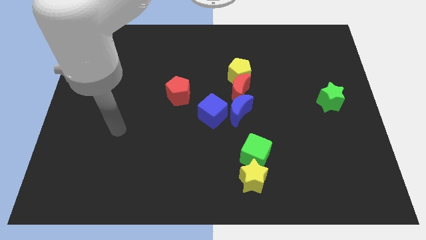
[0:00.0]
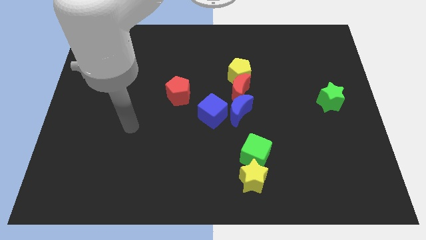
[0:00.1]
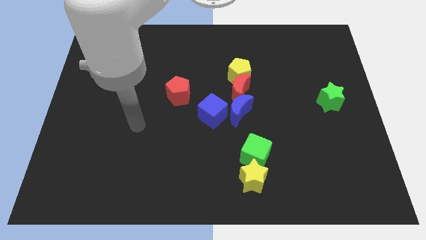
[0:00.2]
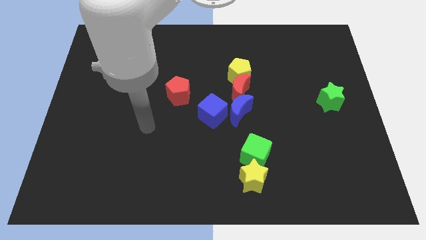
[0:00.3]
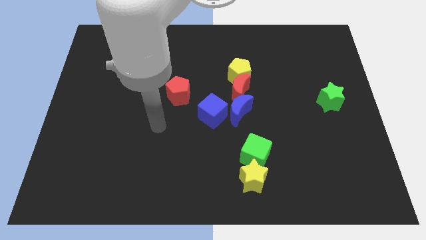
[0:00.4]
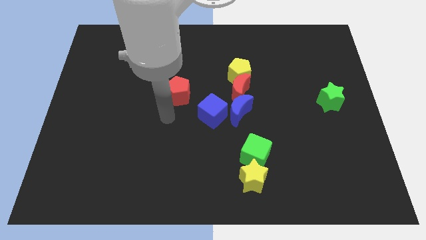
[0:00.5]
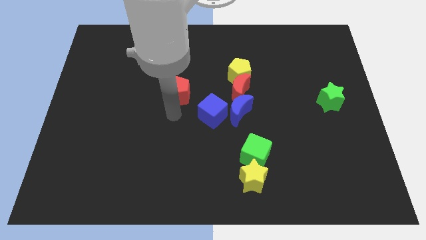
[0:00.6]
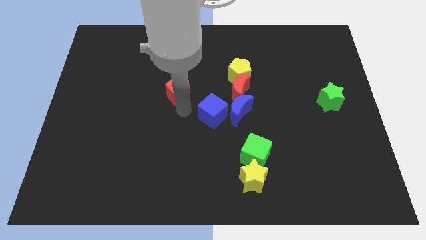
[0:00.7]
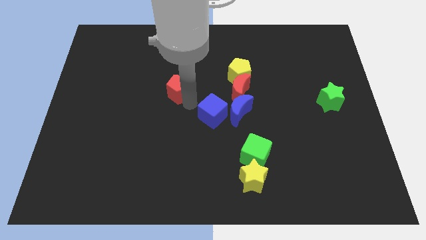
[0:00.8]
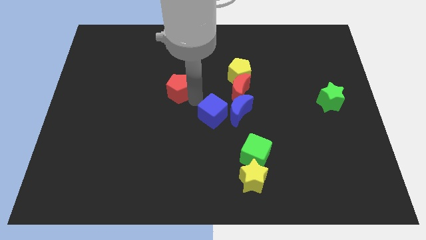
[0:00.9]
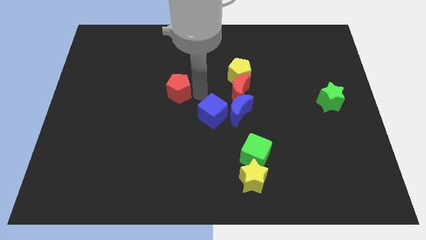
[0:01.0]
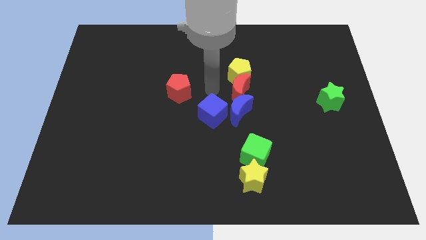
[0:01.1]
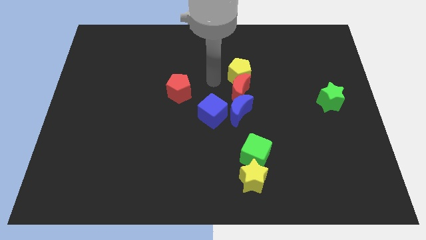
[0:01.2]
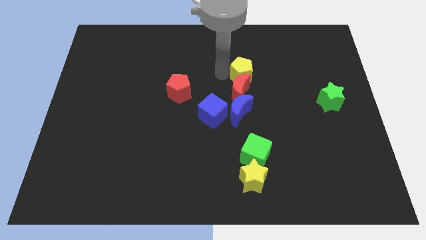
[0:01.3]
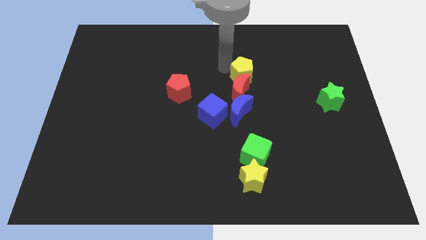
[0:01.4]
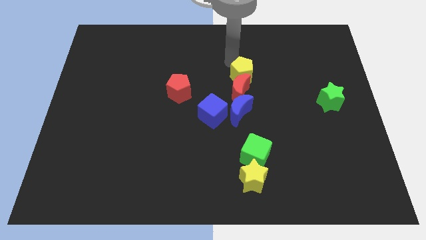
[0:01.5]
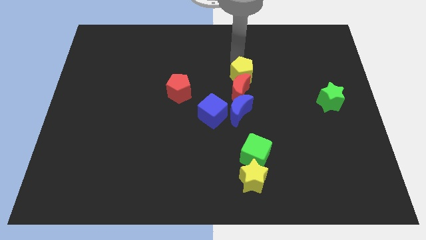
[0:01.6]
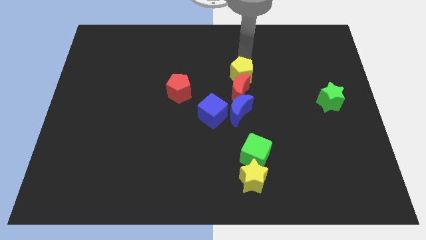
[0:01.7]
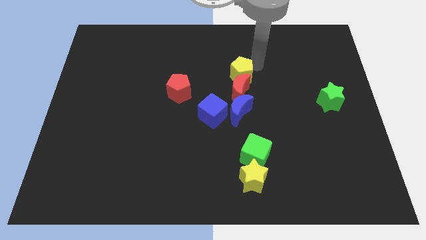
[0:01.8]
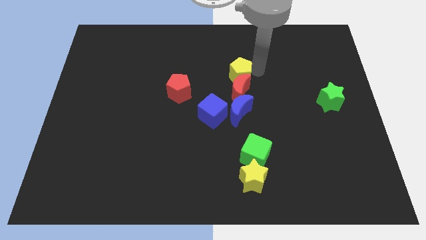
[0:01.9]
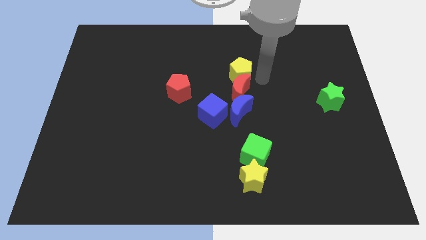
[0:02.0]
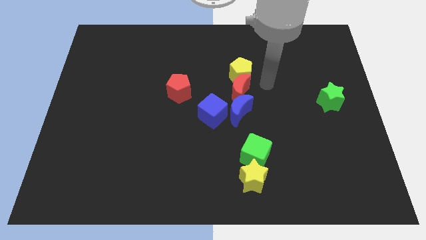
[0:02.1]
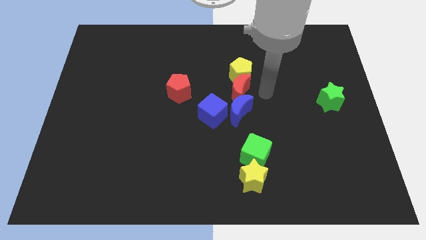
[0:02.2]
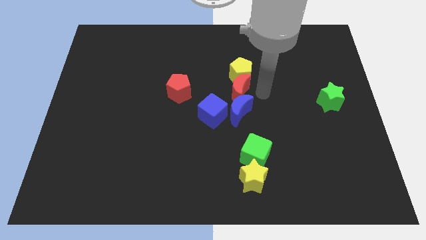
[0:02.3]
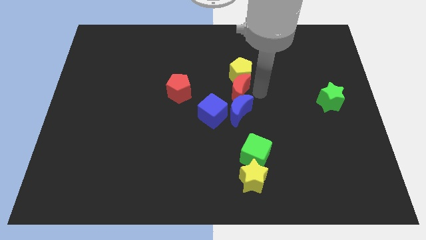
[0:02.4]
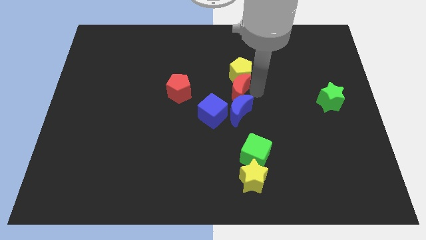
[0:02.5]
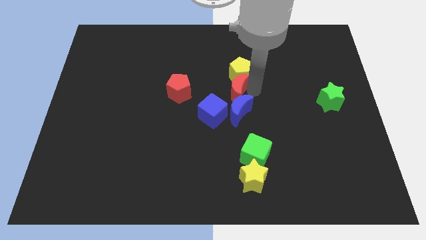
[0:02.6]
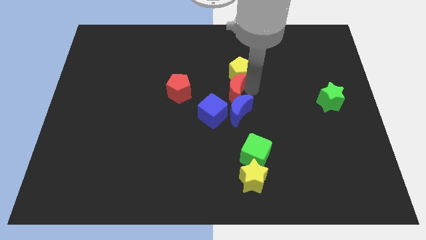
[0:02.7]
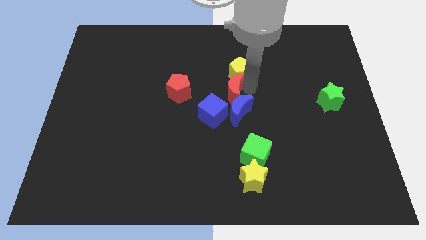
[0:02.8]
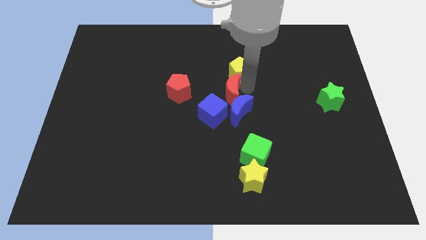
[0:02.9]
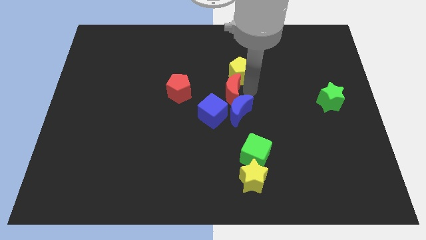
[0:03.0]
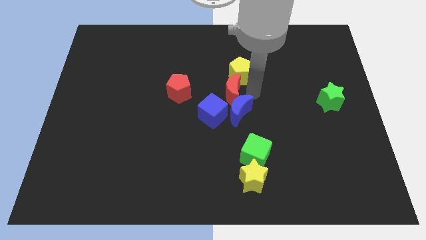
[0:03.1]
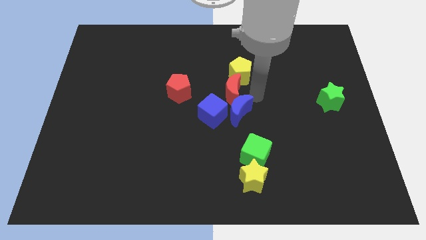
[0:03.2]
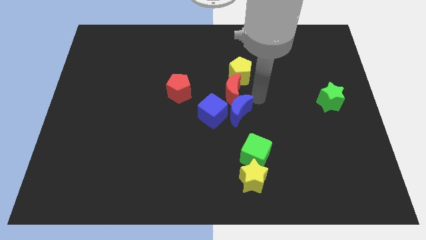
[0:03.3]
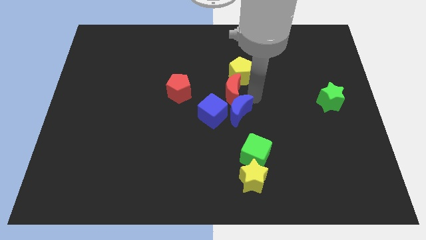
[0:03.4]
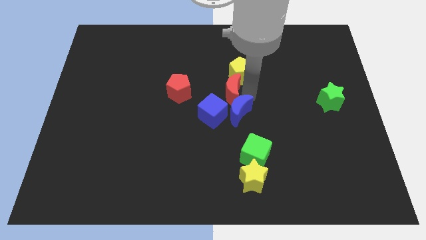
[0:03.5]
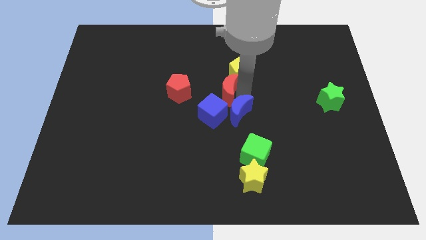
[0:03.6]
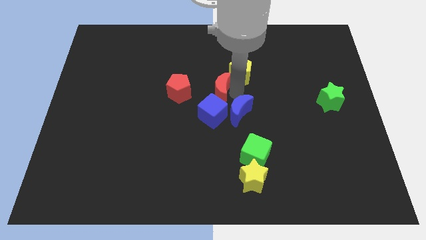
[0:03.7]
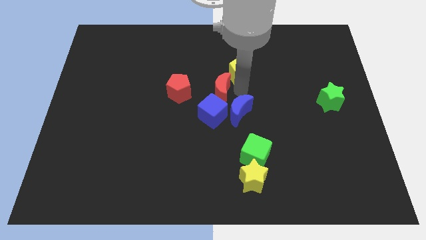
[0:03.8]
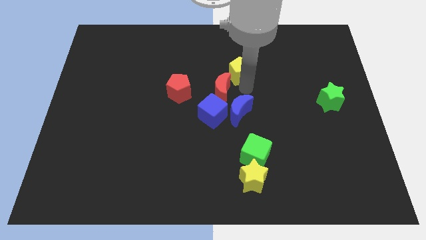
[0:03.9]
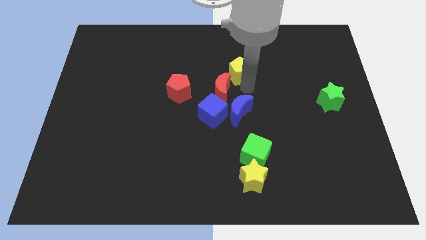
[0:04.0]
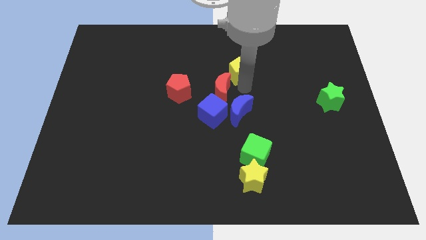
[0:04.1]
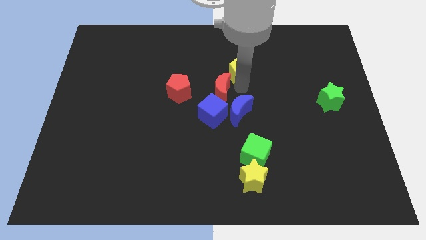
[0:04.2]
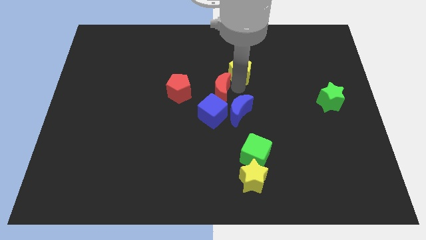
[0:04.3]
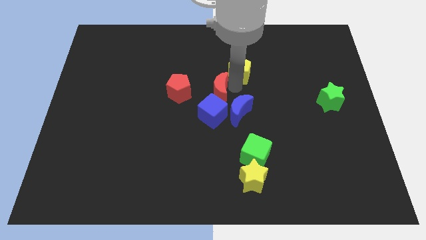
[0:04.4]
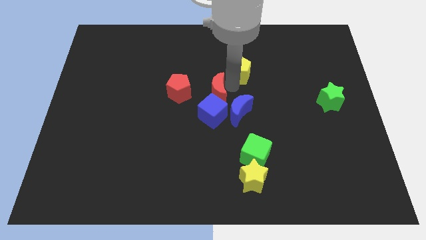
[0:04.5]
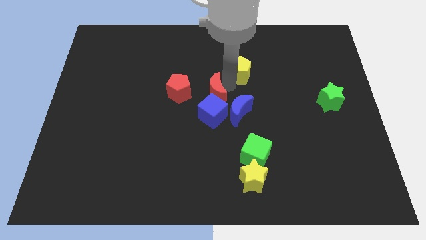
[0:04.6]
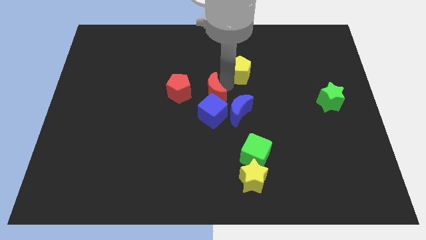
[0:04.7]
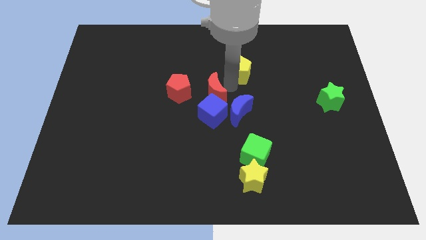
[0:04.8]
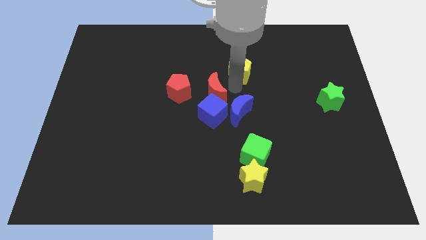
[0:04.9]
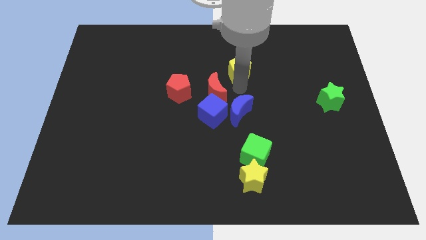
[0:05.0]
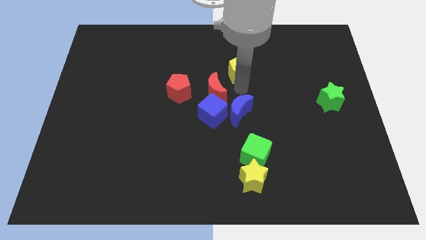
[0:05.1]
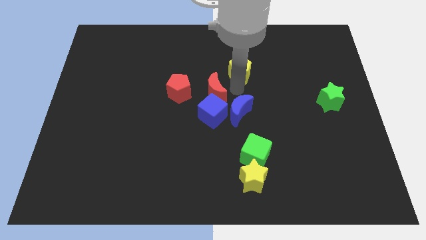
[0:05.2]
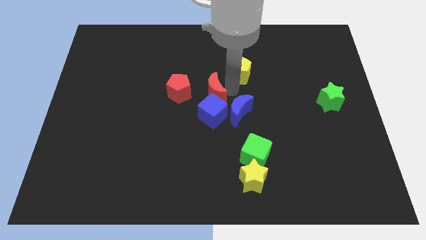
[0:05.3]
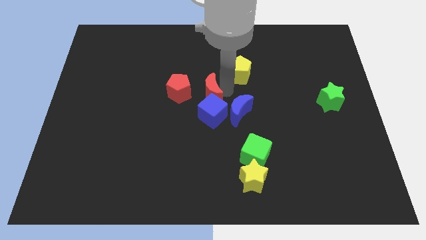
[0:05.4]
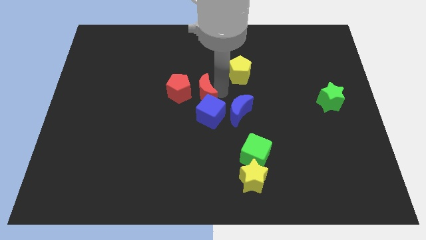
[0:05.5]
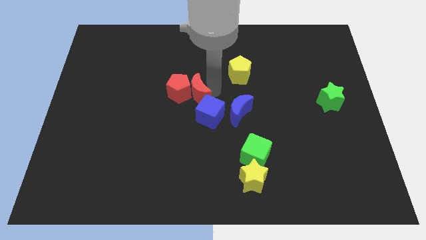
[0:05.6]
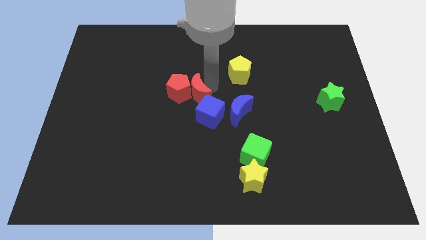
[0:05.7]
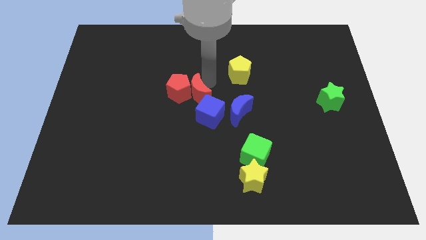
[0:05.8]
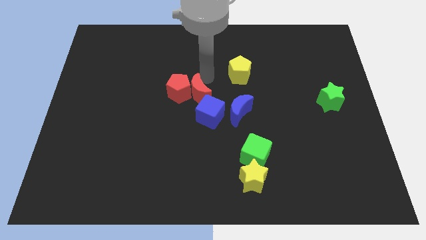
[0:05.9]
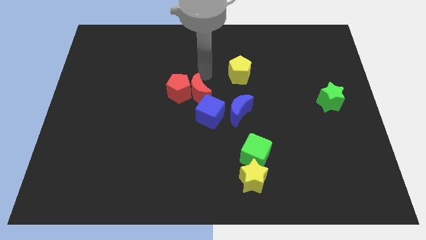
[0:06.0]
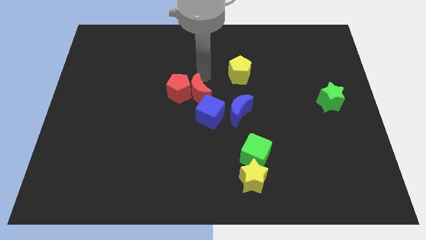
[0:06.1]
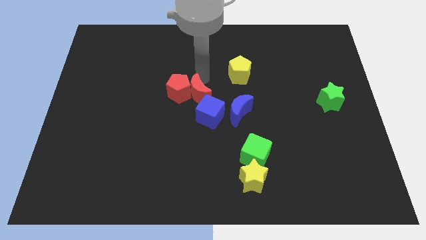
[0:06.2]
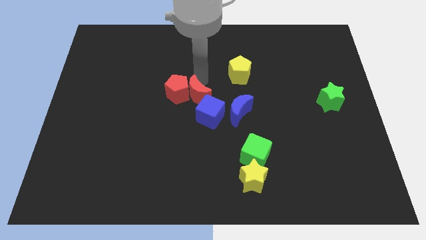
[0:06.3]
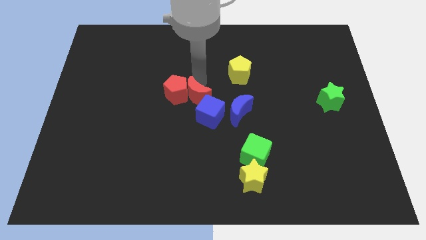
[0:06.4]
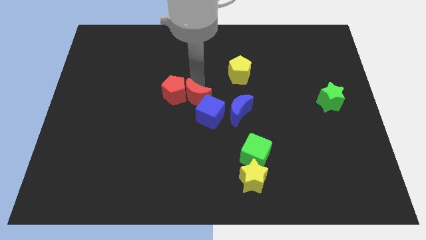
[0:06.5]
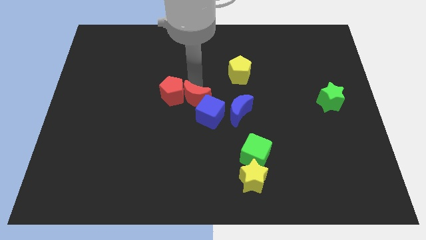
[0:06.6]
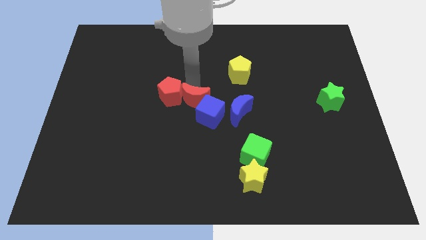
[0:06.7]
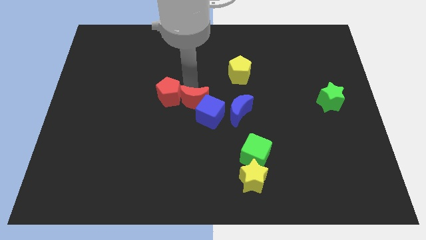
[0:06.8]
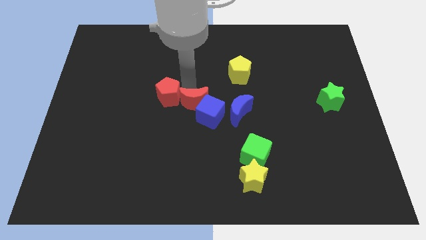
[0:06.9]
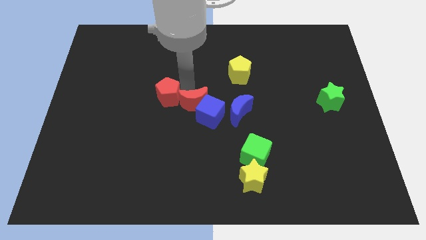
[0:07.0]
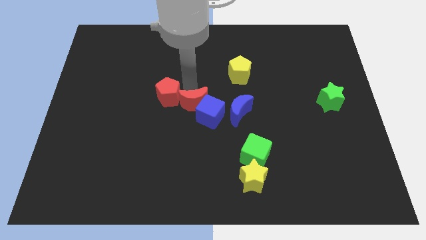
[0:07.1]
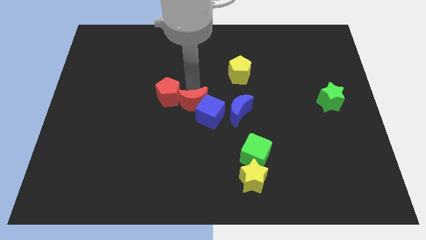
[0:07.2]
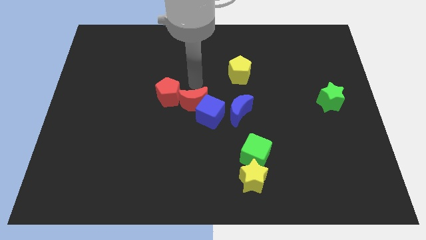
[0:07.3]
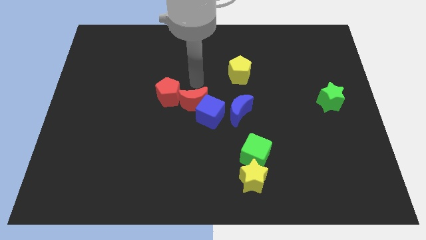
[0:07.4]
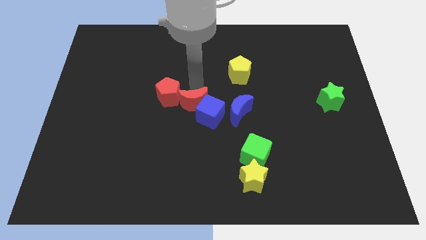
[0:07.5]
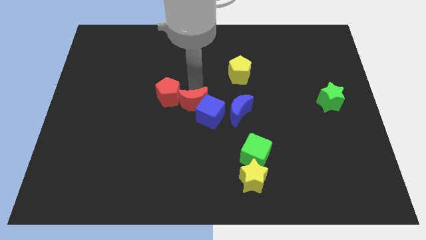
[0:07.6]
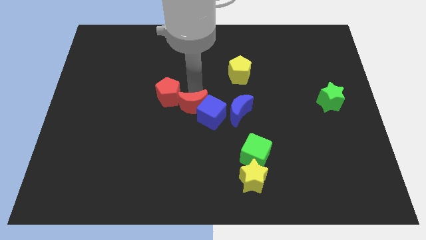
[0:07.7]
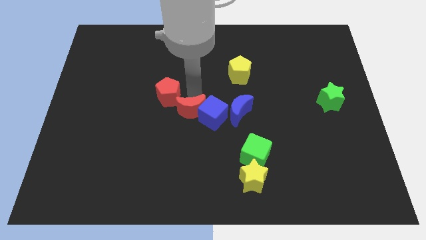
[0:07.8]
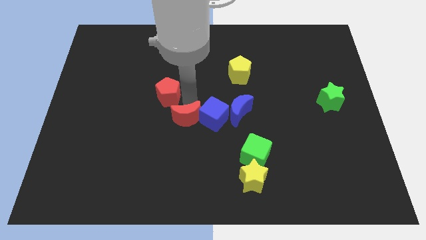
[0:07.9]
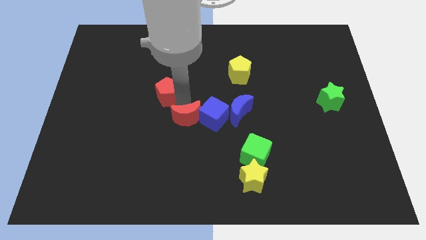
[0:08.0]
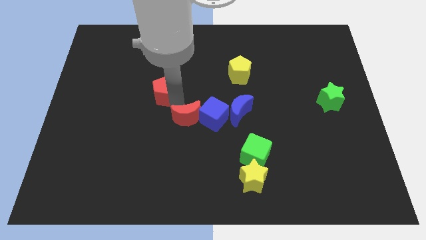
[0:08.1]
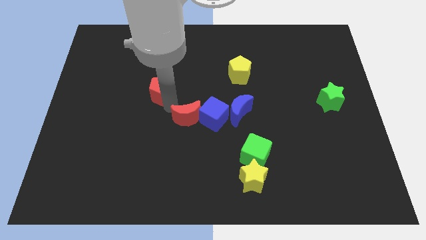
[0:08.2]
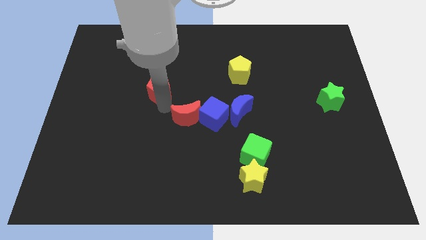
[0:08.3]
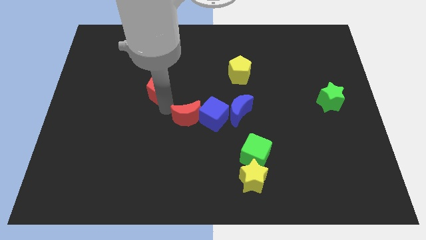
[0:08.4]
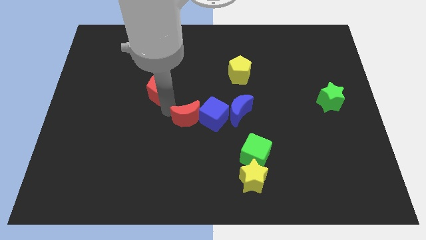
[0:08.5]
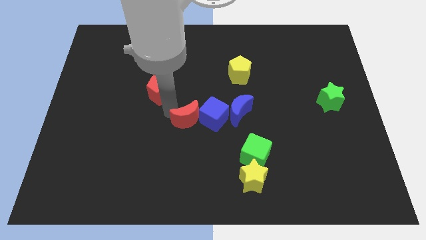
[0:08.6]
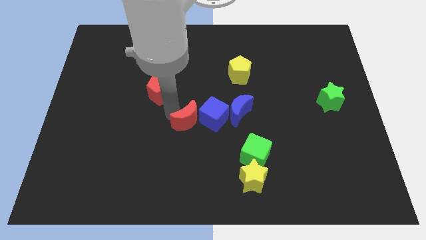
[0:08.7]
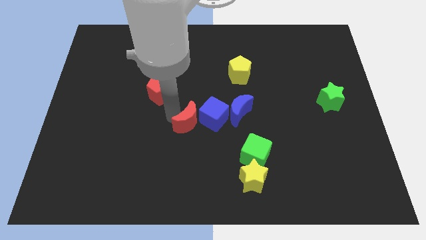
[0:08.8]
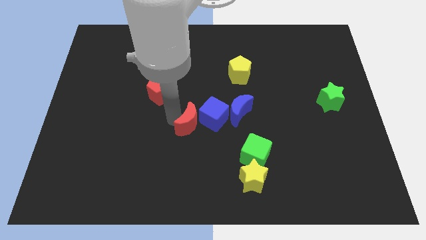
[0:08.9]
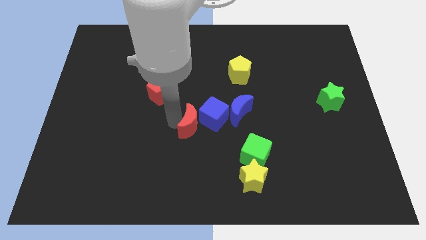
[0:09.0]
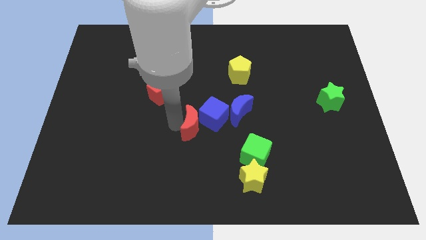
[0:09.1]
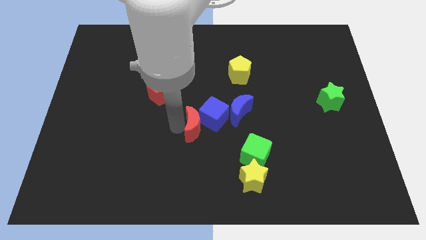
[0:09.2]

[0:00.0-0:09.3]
move the red moon diagonally down and to the left of the blue moon
